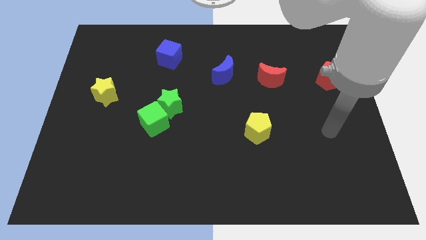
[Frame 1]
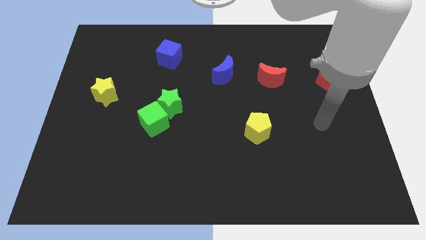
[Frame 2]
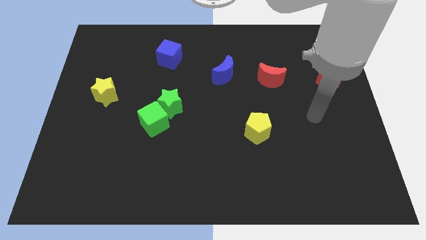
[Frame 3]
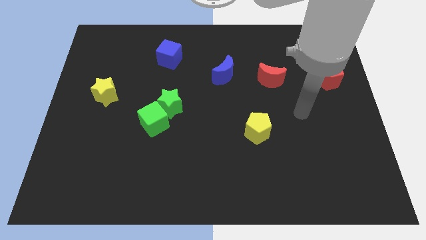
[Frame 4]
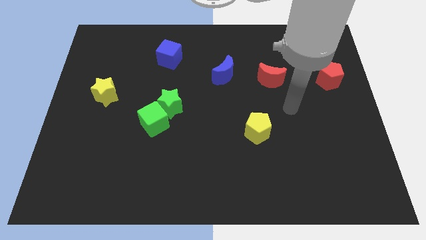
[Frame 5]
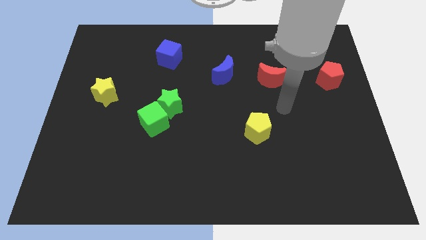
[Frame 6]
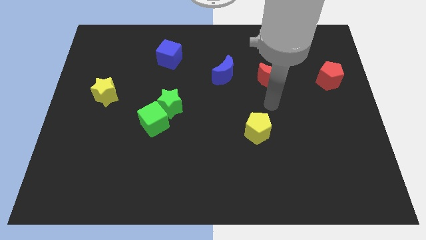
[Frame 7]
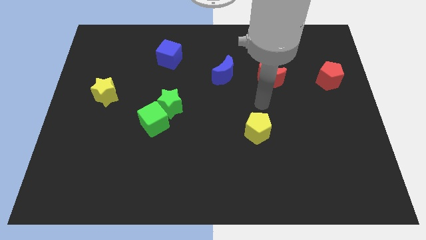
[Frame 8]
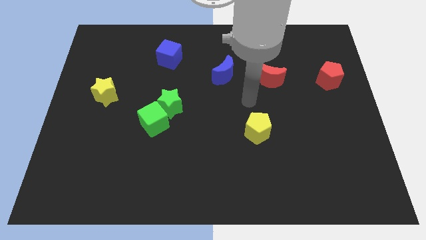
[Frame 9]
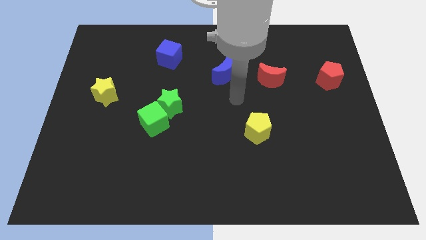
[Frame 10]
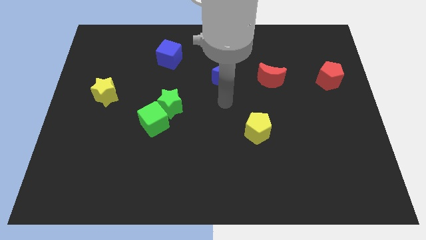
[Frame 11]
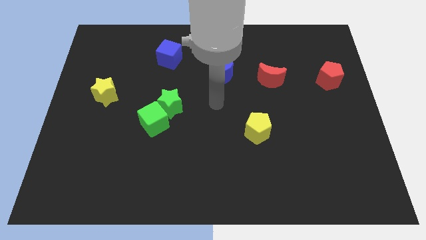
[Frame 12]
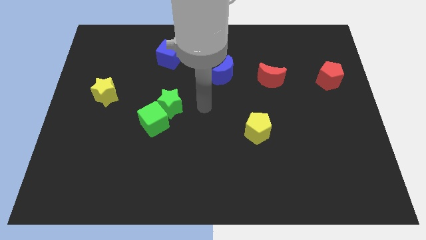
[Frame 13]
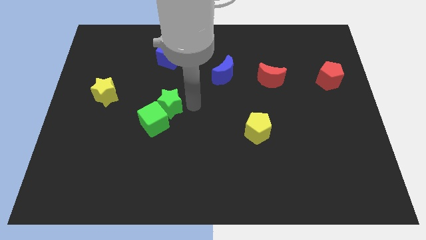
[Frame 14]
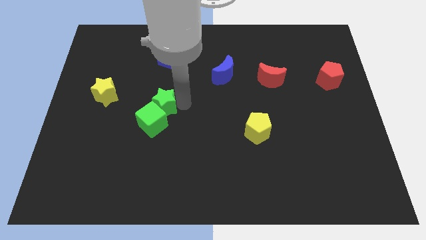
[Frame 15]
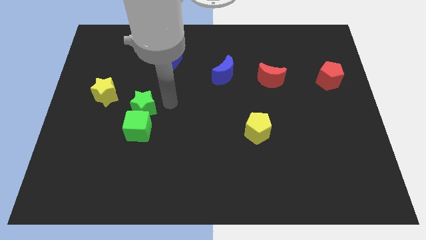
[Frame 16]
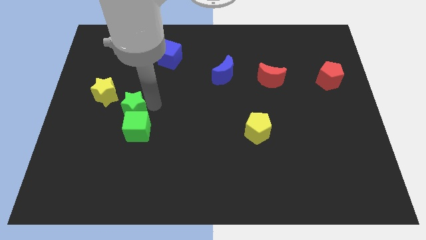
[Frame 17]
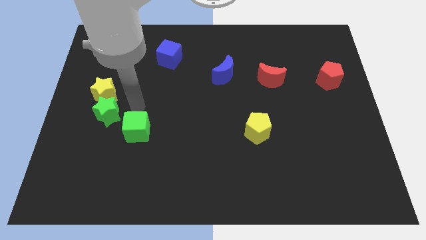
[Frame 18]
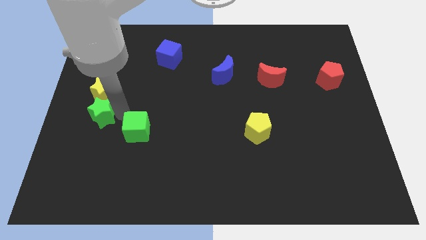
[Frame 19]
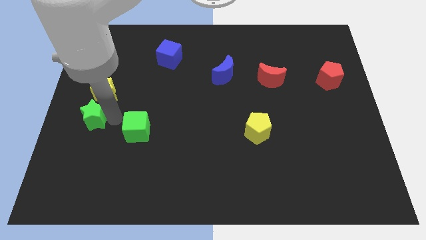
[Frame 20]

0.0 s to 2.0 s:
separate the green cube from the green star

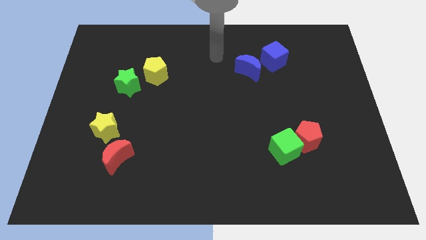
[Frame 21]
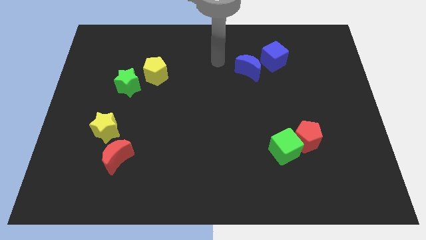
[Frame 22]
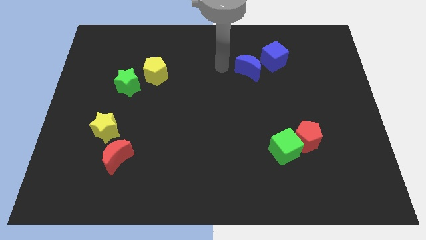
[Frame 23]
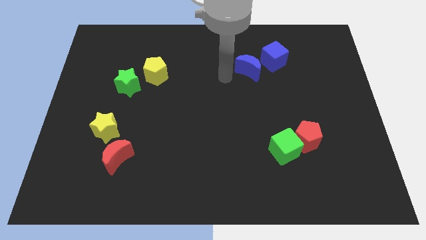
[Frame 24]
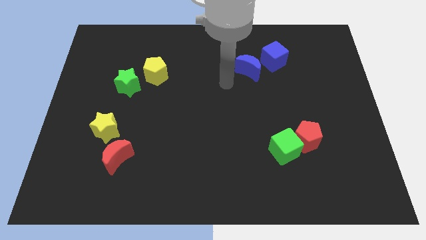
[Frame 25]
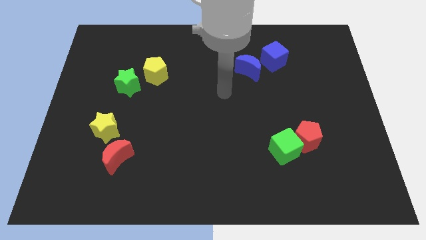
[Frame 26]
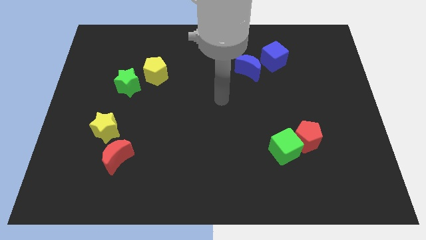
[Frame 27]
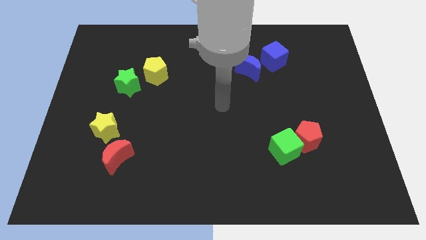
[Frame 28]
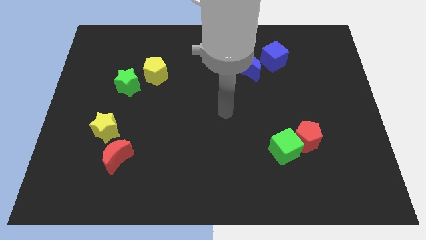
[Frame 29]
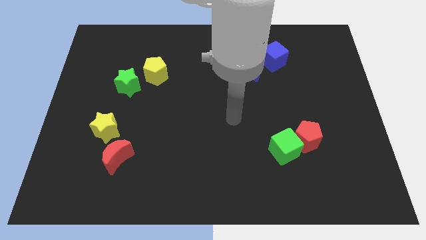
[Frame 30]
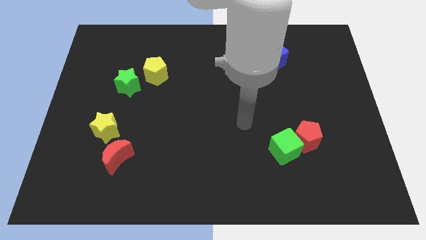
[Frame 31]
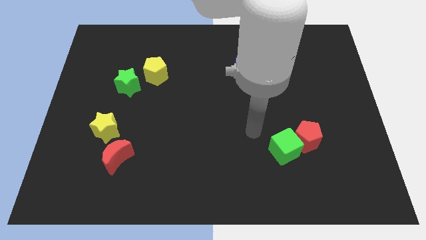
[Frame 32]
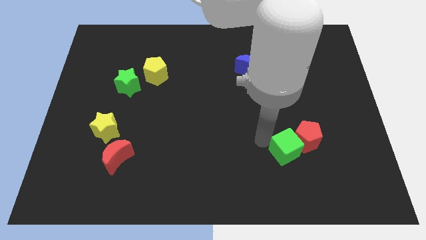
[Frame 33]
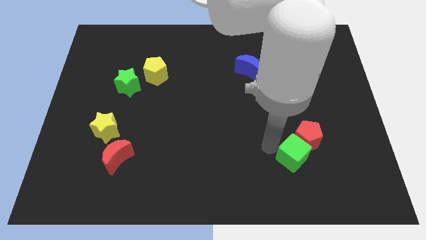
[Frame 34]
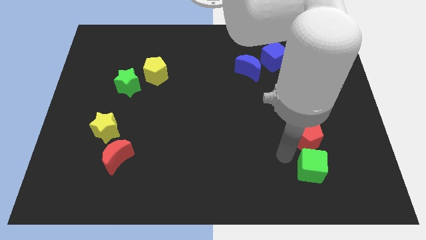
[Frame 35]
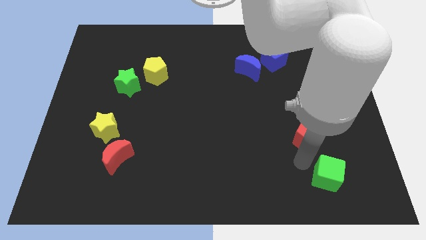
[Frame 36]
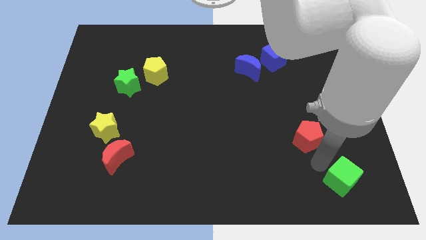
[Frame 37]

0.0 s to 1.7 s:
pull the red pentagon apart from the green cube

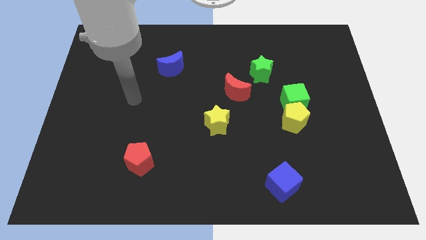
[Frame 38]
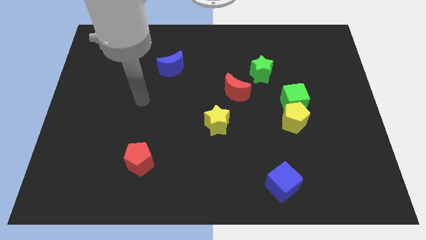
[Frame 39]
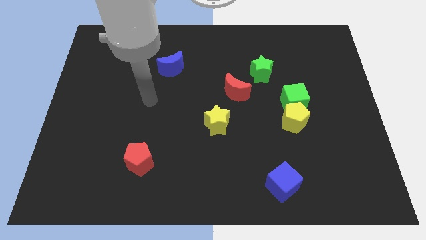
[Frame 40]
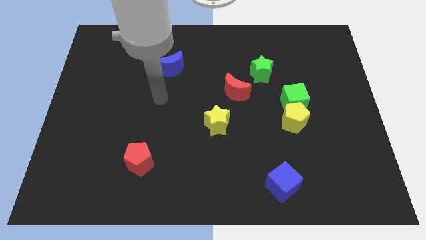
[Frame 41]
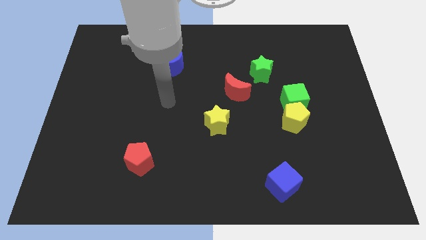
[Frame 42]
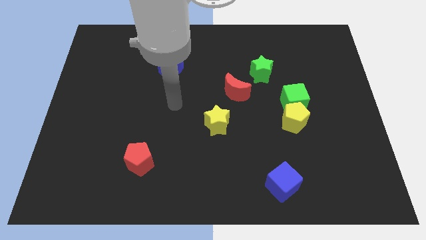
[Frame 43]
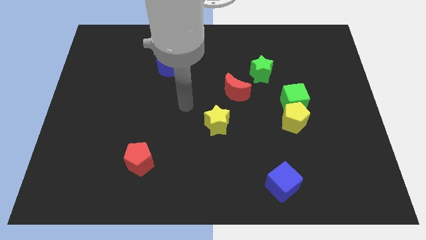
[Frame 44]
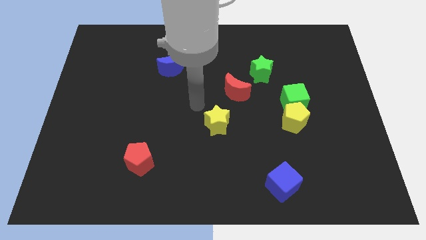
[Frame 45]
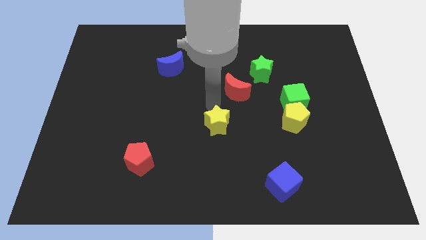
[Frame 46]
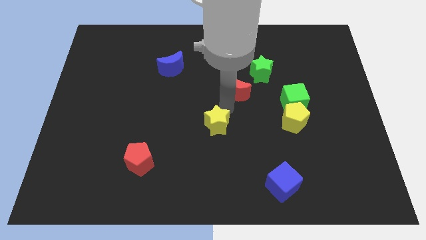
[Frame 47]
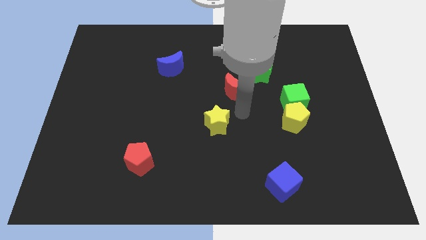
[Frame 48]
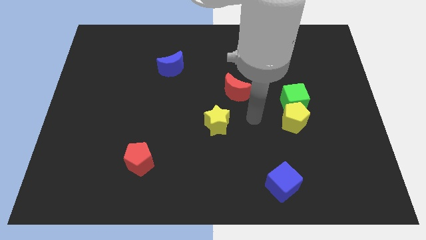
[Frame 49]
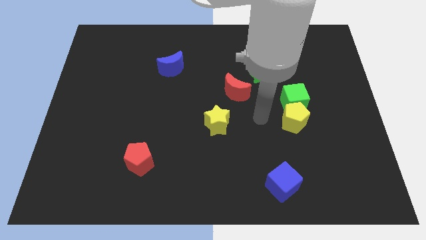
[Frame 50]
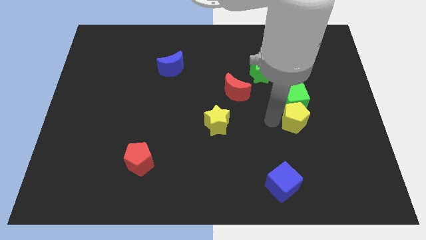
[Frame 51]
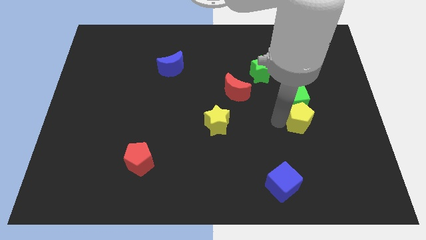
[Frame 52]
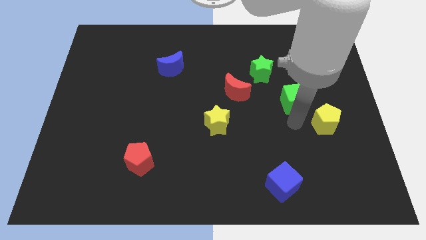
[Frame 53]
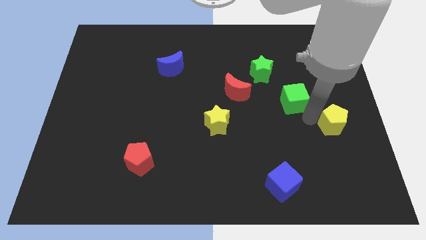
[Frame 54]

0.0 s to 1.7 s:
move the green cube away from the yellow pentagon

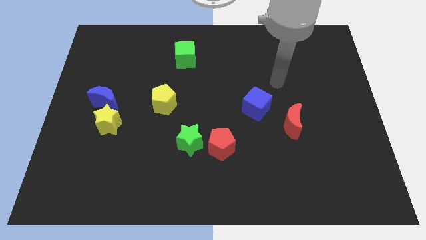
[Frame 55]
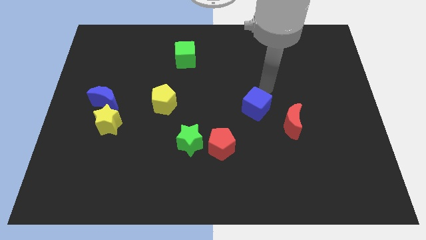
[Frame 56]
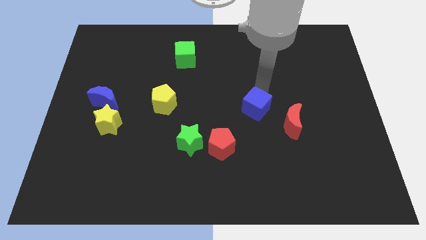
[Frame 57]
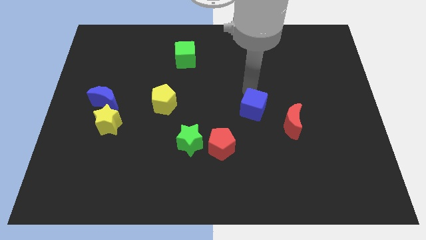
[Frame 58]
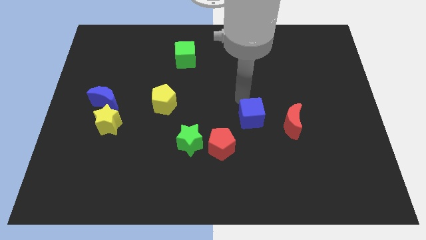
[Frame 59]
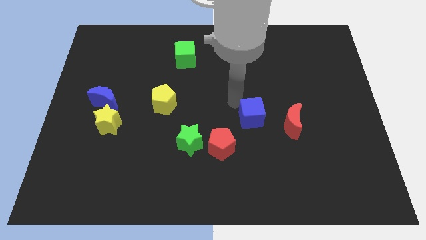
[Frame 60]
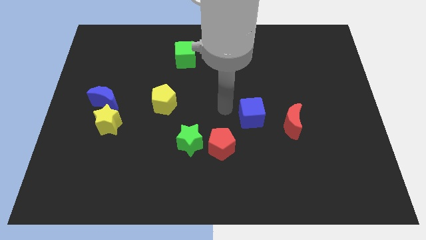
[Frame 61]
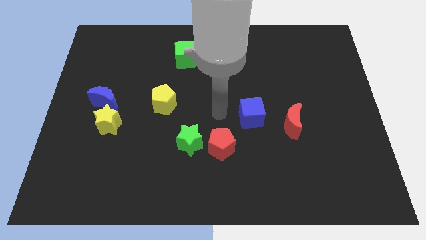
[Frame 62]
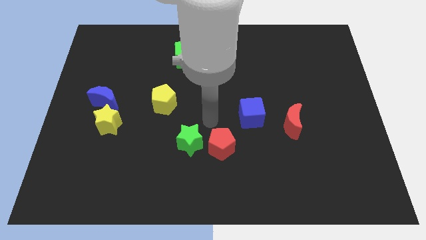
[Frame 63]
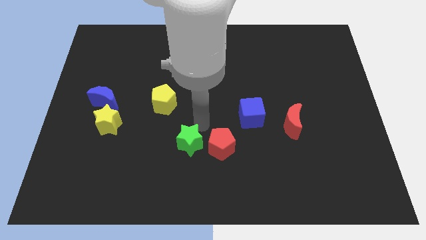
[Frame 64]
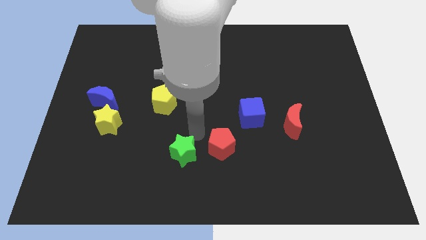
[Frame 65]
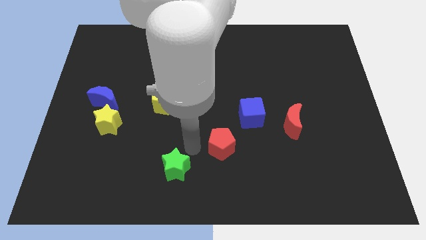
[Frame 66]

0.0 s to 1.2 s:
pull the red pentagon apart from the green star

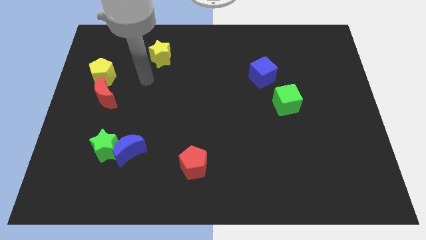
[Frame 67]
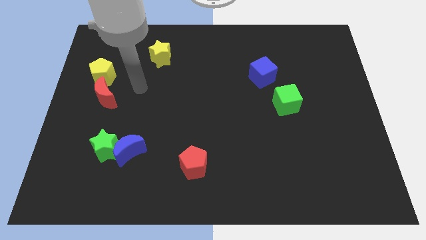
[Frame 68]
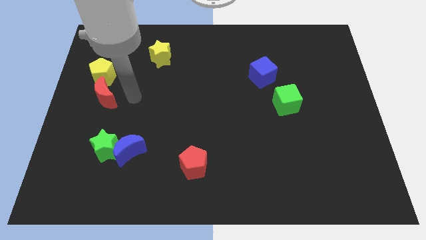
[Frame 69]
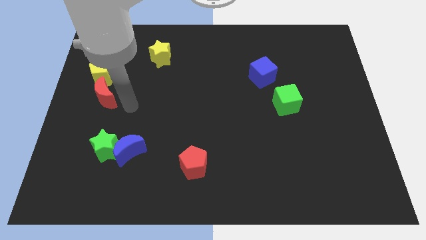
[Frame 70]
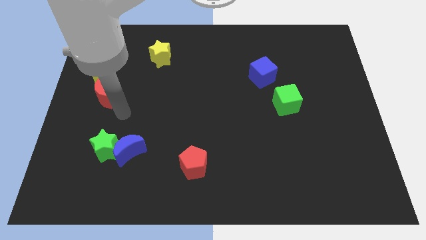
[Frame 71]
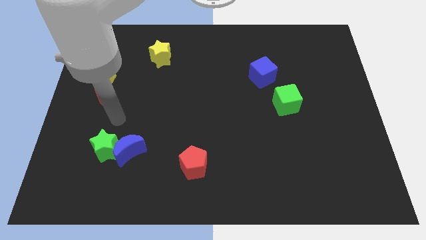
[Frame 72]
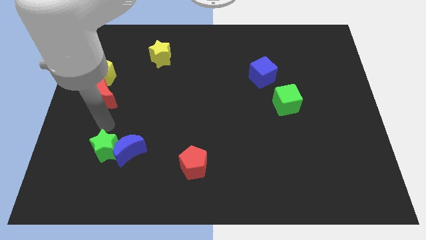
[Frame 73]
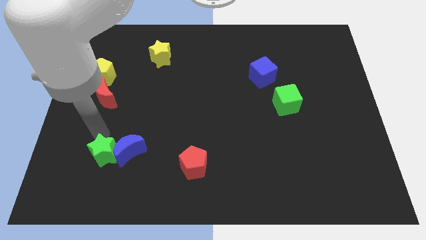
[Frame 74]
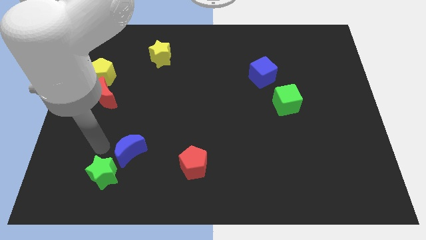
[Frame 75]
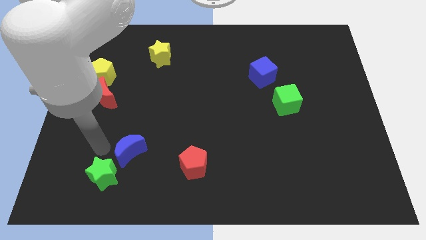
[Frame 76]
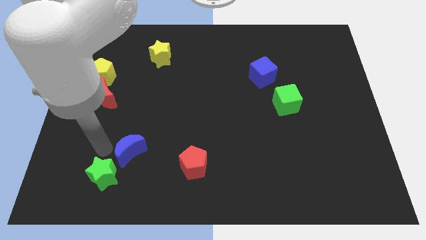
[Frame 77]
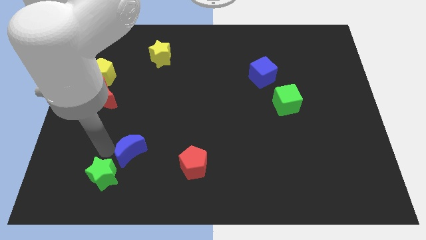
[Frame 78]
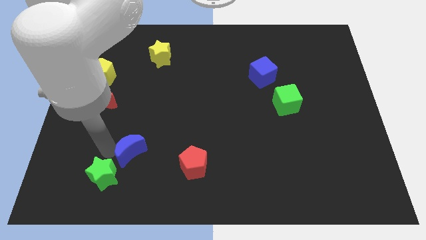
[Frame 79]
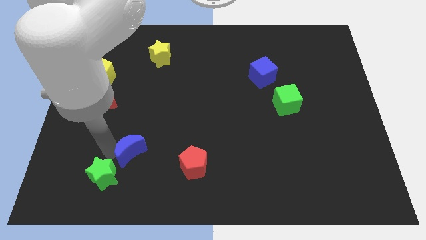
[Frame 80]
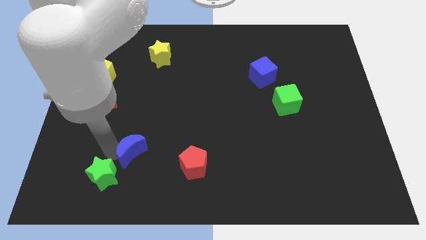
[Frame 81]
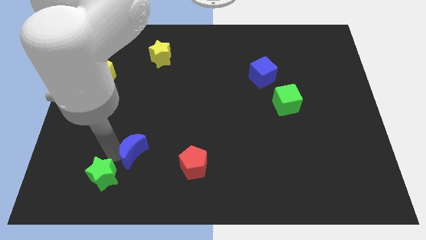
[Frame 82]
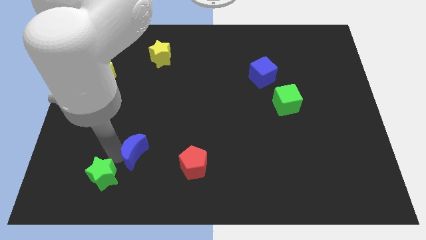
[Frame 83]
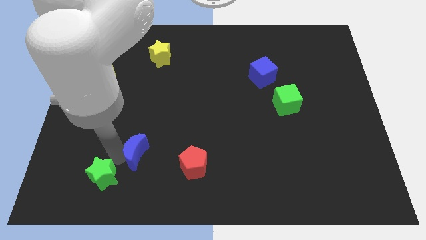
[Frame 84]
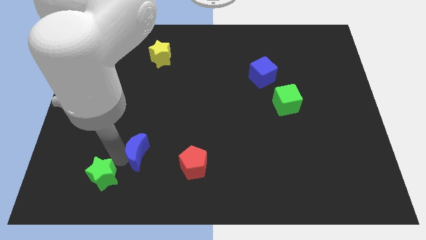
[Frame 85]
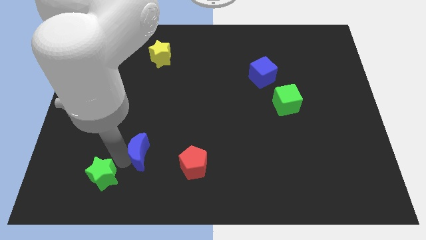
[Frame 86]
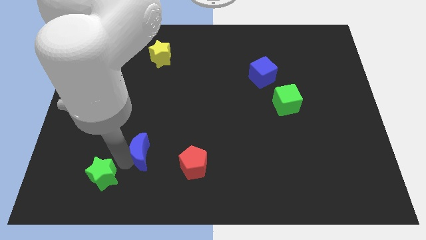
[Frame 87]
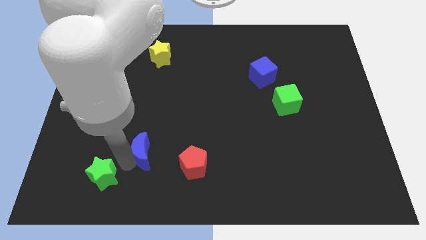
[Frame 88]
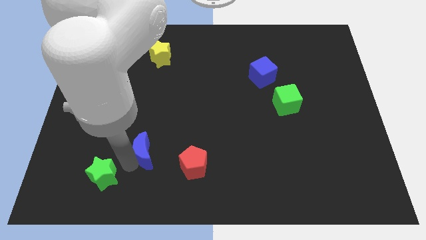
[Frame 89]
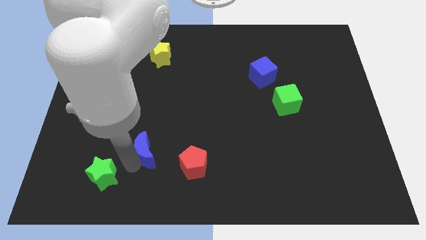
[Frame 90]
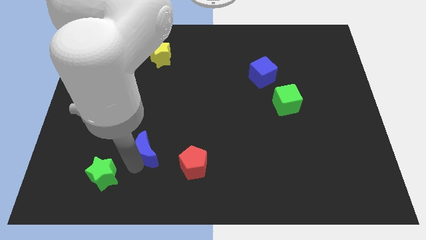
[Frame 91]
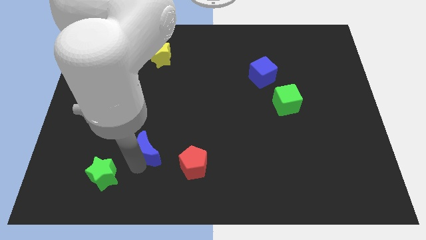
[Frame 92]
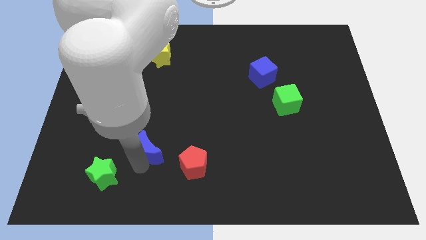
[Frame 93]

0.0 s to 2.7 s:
separate the blue moon from the green star
